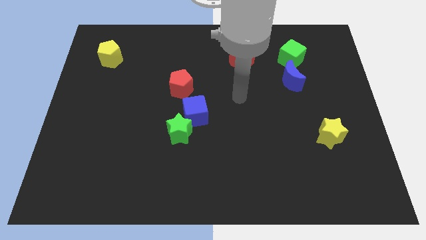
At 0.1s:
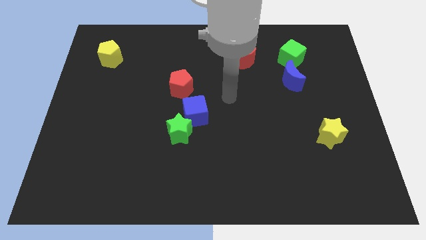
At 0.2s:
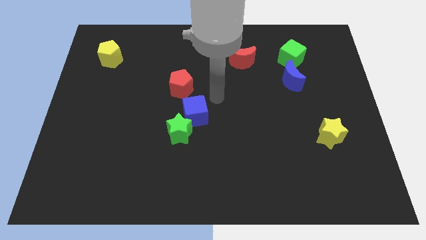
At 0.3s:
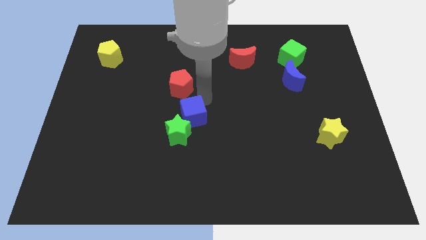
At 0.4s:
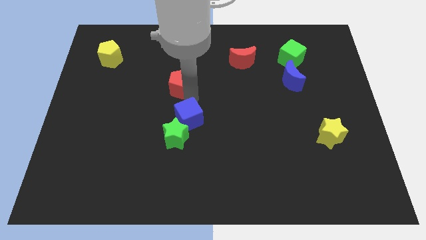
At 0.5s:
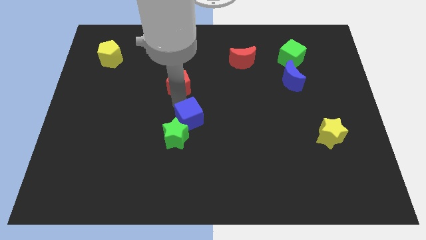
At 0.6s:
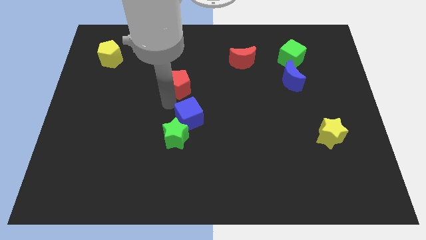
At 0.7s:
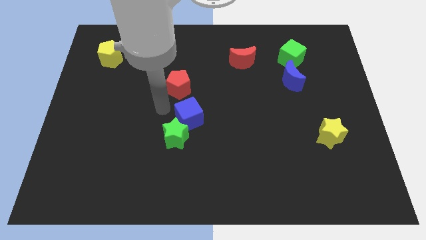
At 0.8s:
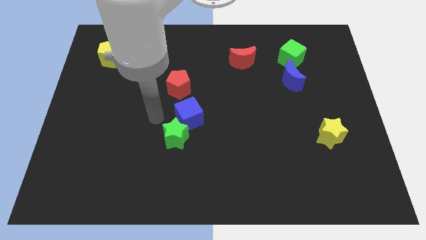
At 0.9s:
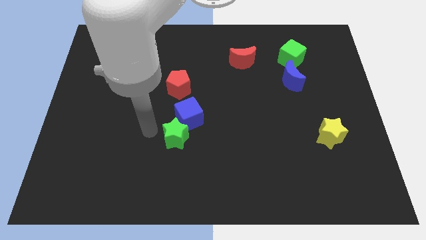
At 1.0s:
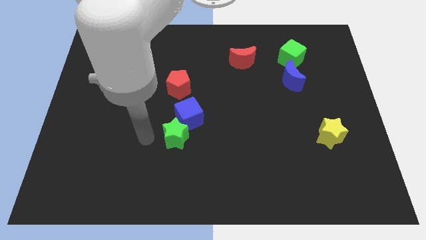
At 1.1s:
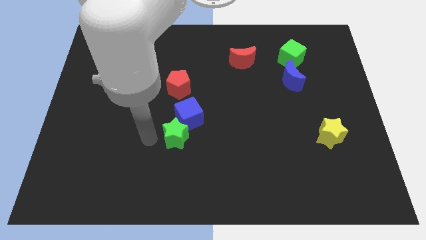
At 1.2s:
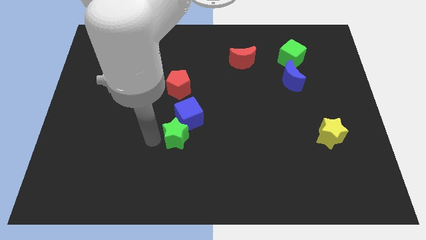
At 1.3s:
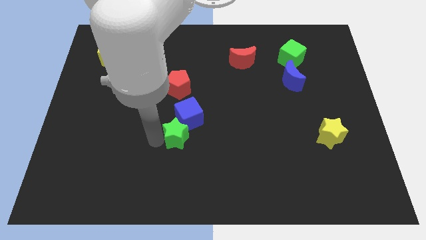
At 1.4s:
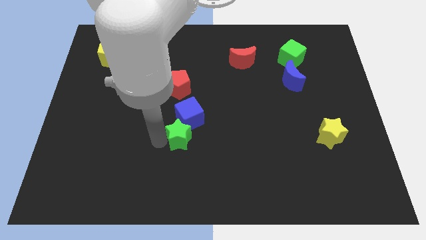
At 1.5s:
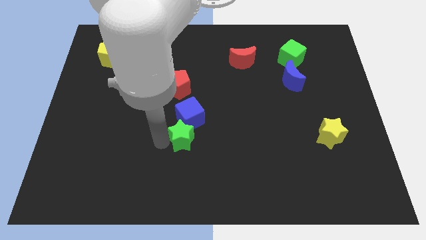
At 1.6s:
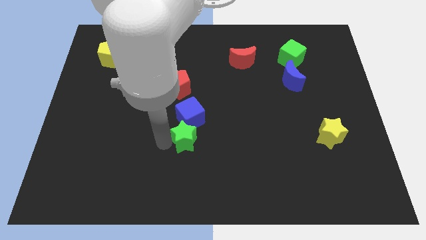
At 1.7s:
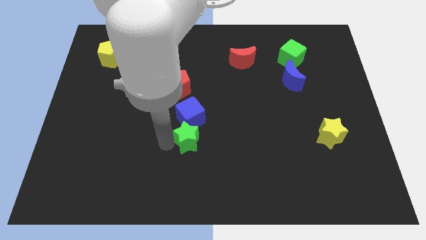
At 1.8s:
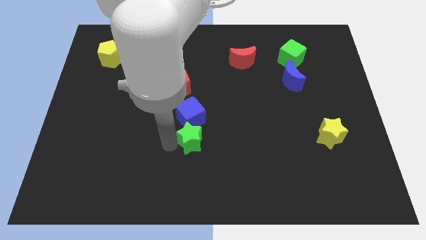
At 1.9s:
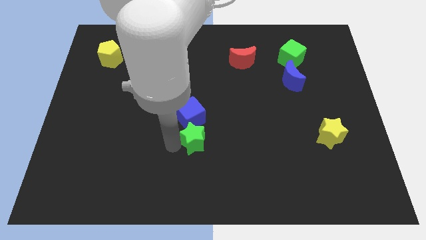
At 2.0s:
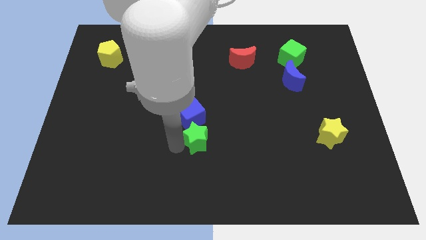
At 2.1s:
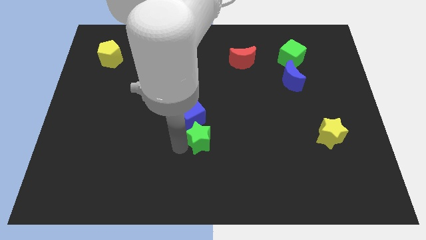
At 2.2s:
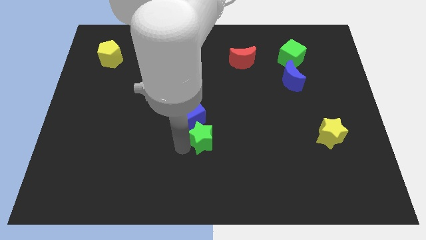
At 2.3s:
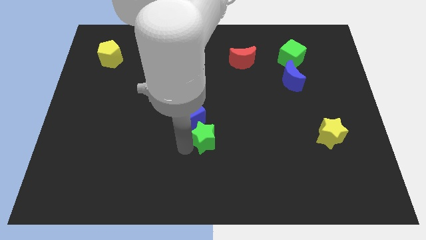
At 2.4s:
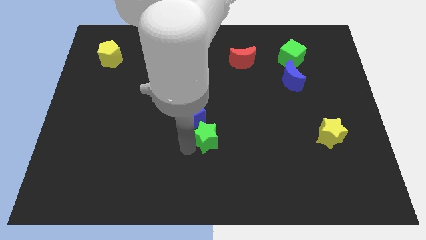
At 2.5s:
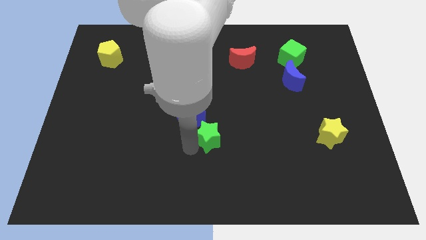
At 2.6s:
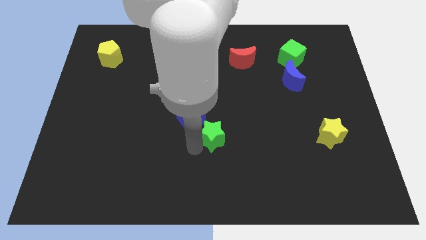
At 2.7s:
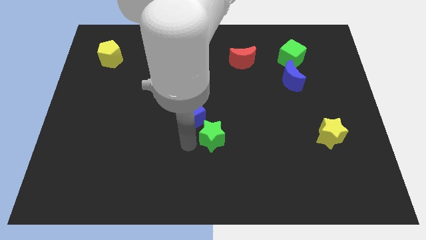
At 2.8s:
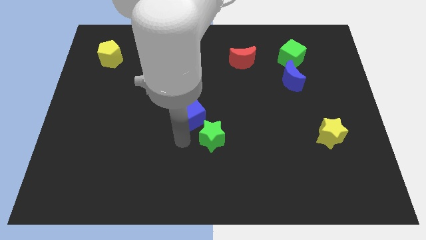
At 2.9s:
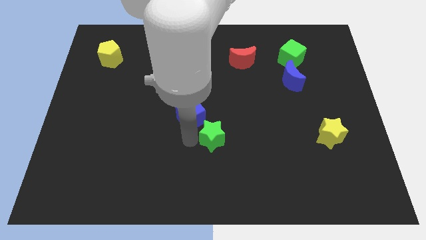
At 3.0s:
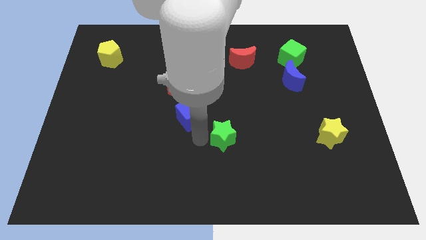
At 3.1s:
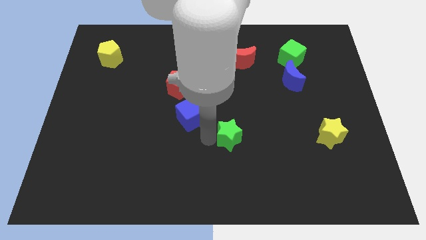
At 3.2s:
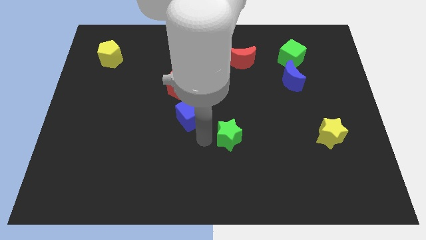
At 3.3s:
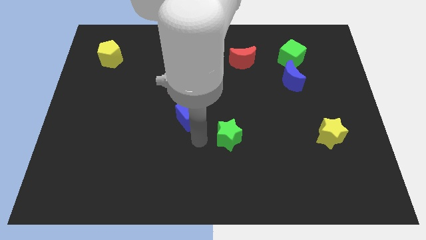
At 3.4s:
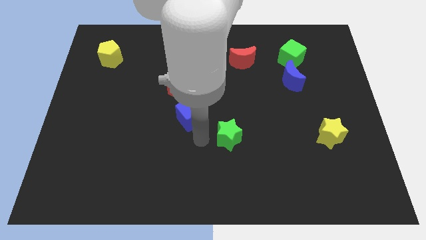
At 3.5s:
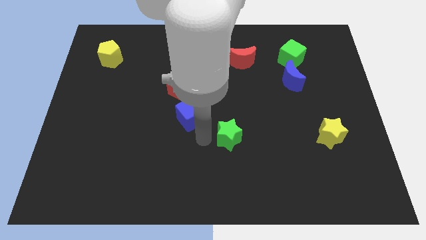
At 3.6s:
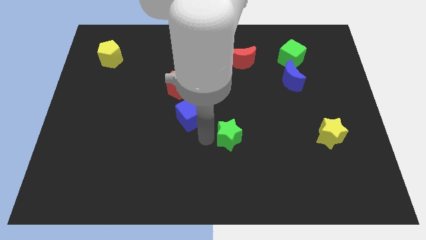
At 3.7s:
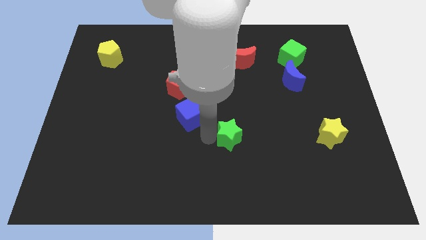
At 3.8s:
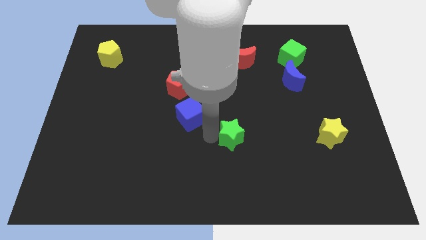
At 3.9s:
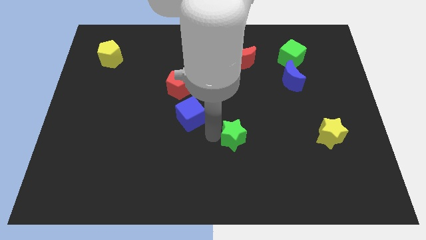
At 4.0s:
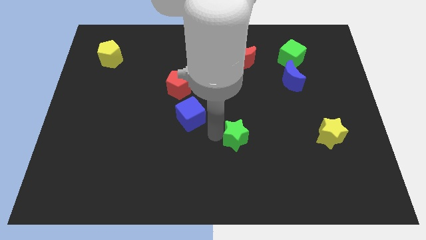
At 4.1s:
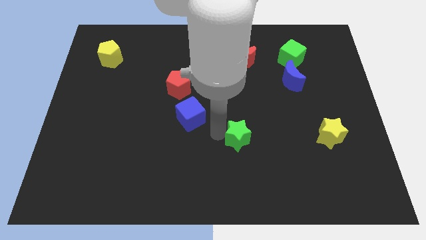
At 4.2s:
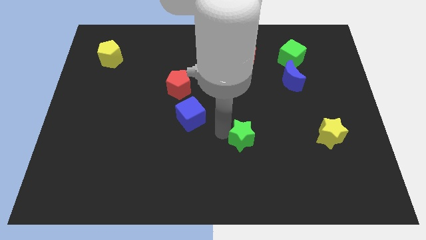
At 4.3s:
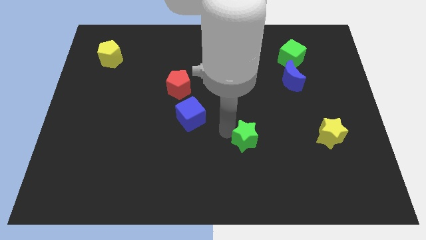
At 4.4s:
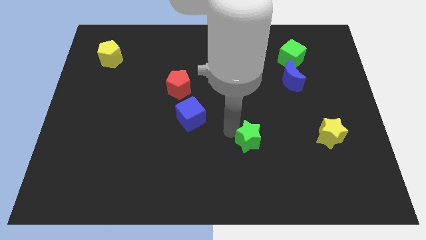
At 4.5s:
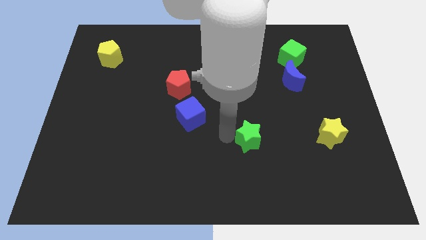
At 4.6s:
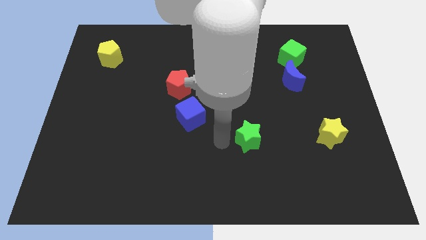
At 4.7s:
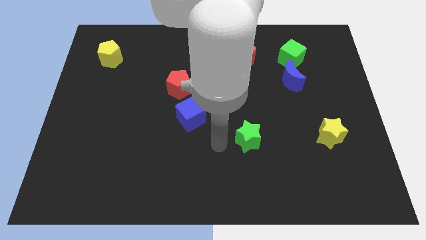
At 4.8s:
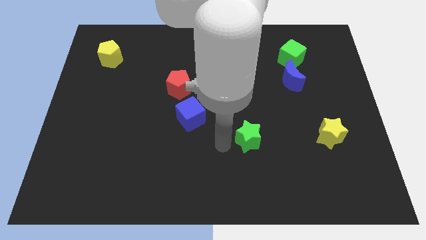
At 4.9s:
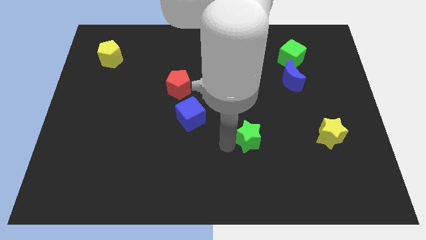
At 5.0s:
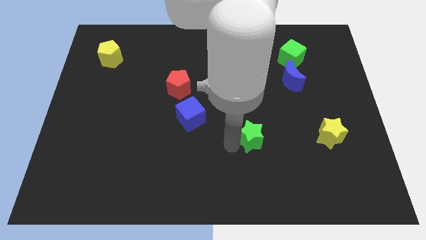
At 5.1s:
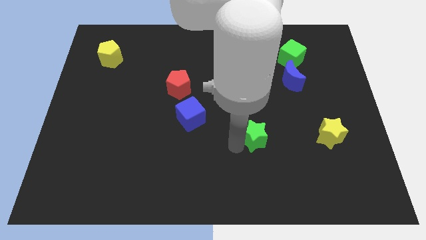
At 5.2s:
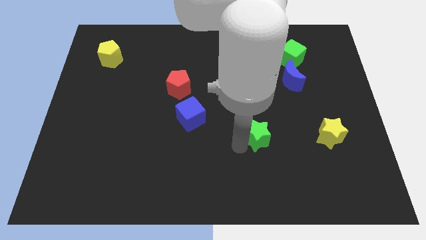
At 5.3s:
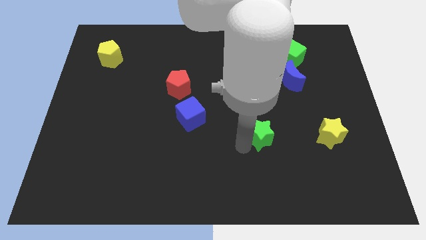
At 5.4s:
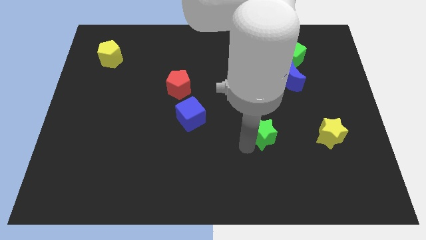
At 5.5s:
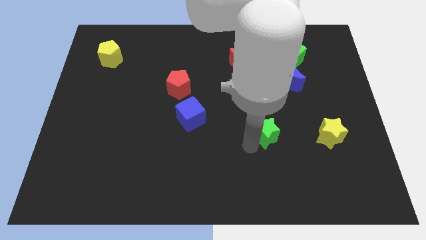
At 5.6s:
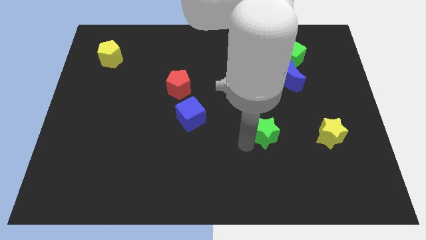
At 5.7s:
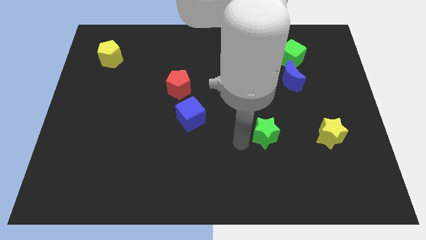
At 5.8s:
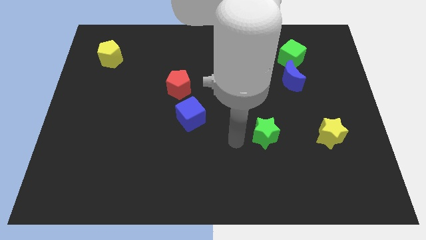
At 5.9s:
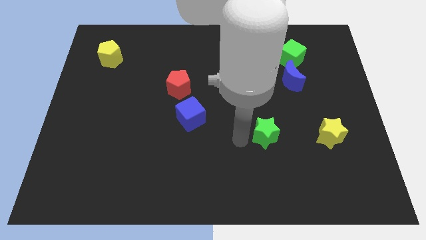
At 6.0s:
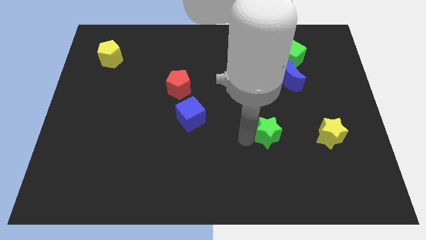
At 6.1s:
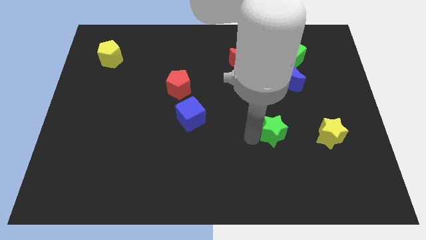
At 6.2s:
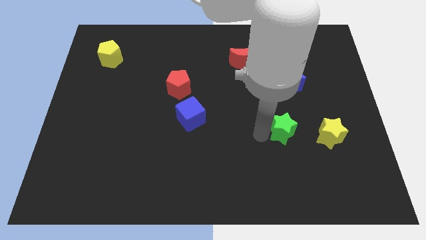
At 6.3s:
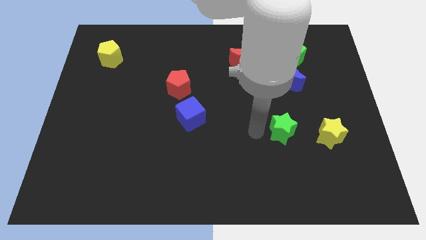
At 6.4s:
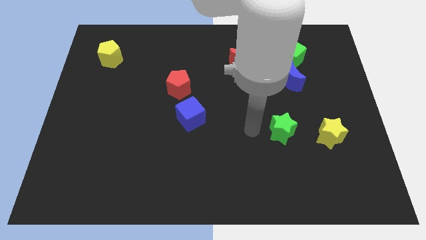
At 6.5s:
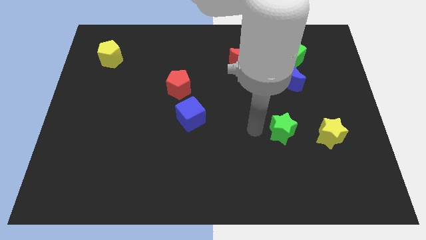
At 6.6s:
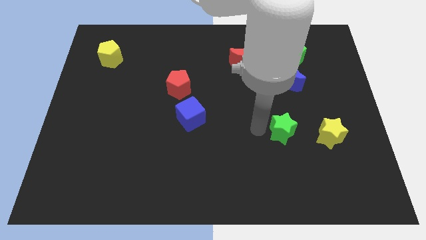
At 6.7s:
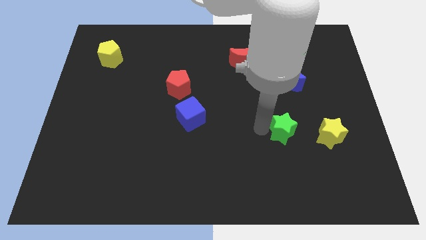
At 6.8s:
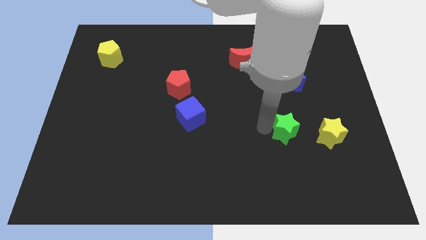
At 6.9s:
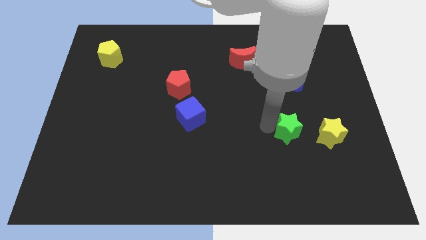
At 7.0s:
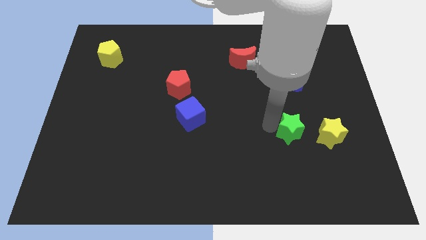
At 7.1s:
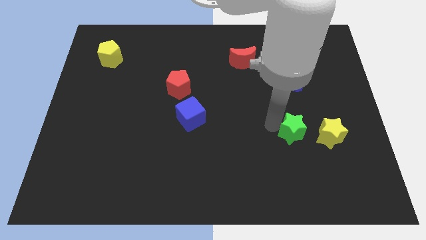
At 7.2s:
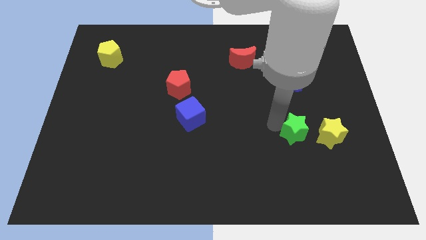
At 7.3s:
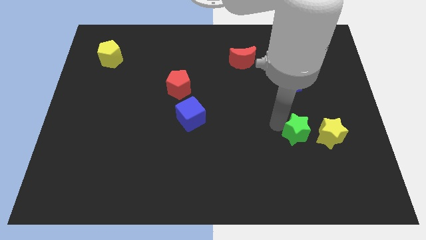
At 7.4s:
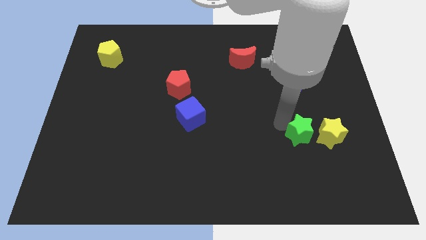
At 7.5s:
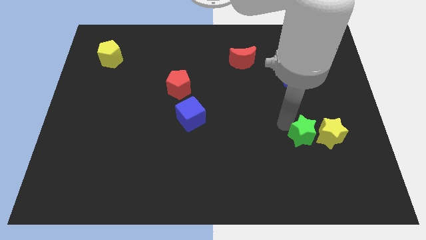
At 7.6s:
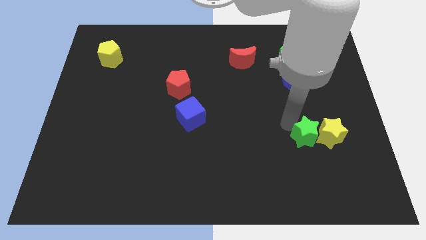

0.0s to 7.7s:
push the green star to the yellow star

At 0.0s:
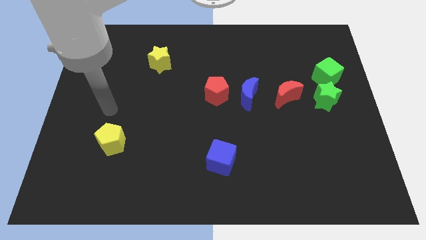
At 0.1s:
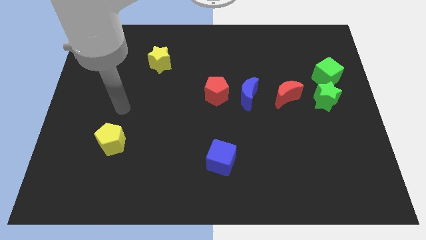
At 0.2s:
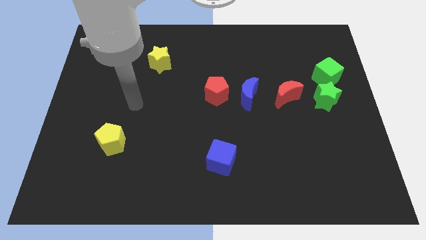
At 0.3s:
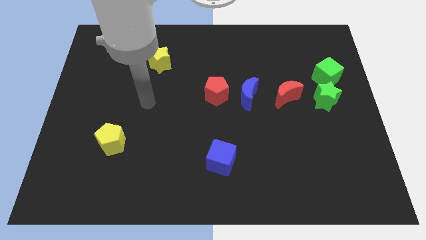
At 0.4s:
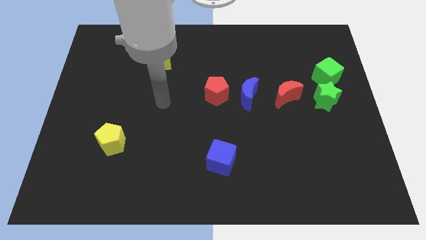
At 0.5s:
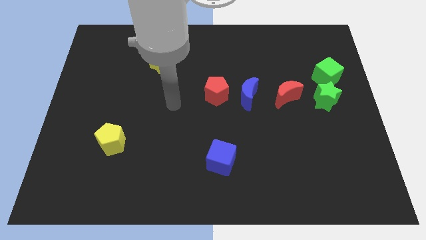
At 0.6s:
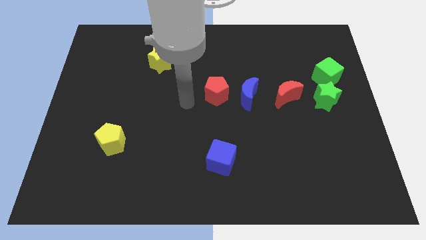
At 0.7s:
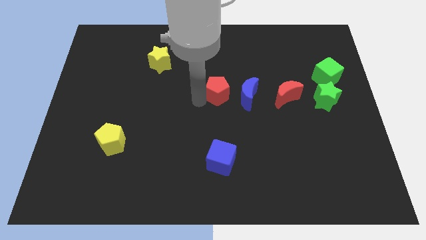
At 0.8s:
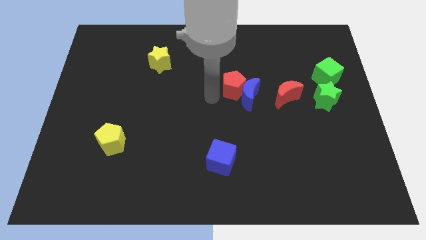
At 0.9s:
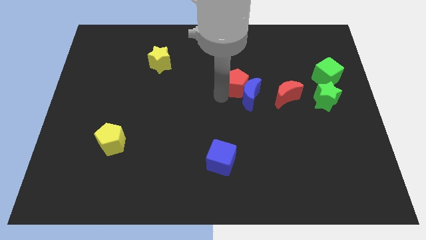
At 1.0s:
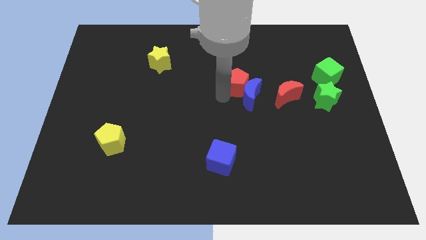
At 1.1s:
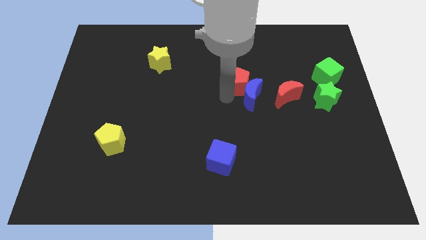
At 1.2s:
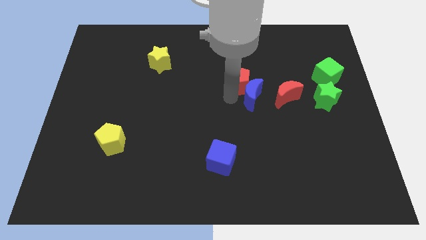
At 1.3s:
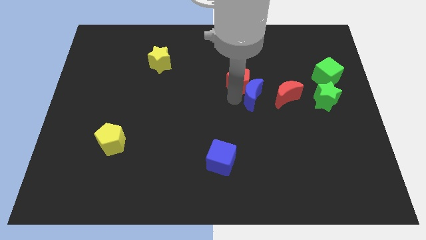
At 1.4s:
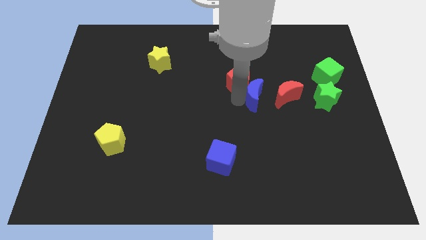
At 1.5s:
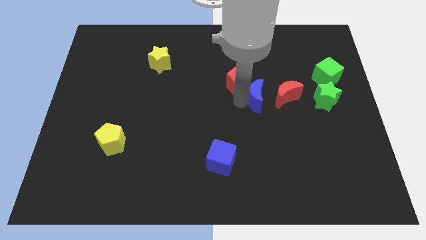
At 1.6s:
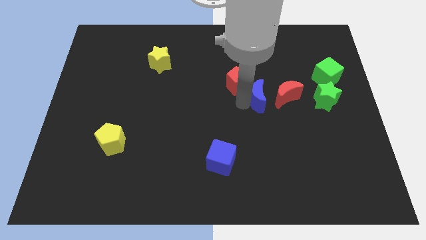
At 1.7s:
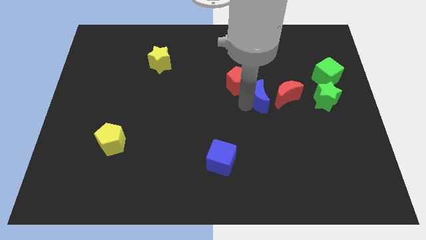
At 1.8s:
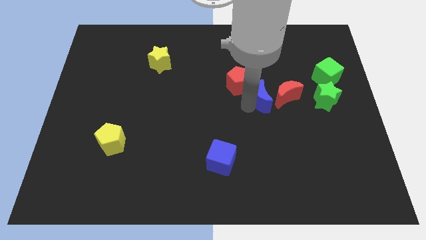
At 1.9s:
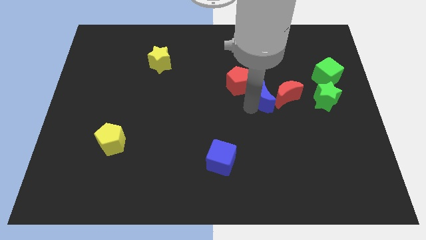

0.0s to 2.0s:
put the blue moon close to the red moon
